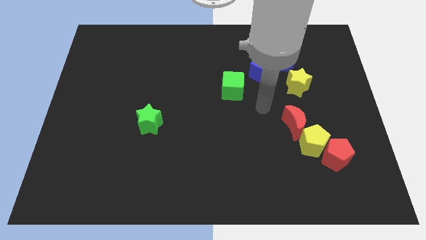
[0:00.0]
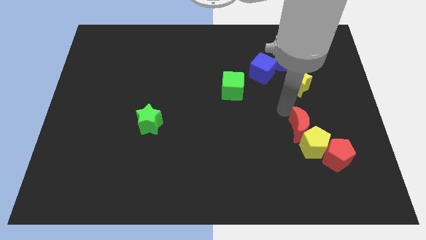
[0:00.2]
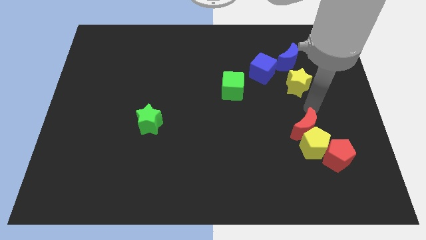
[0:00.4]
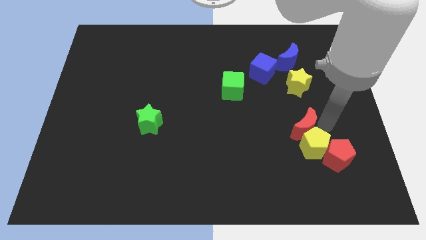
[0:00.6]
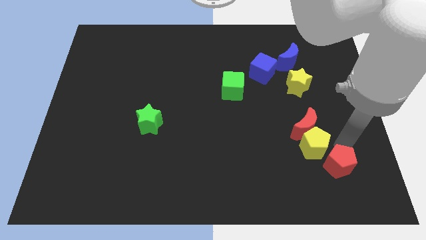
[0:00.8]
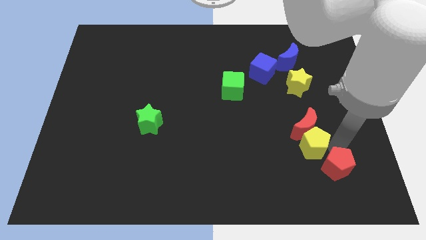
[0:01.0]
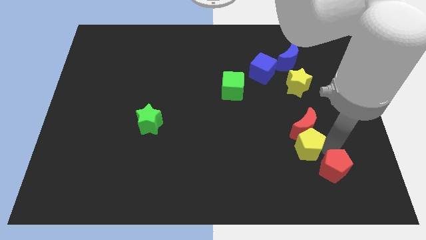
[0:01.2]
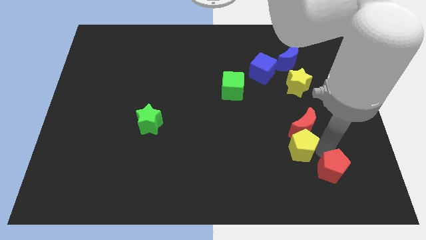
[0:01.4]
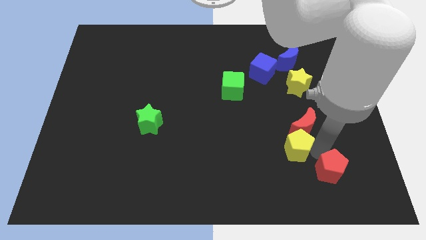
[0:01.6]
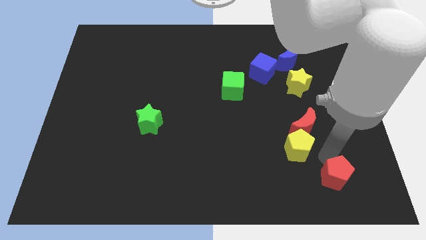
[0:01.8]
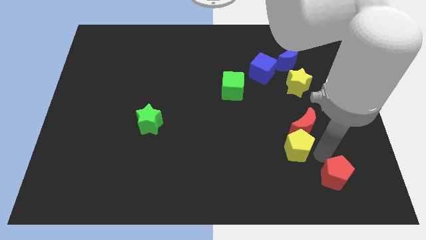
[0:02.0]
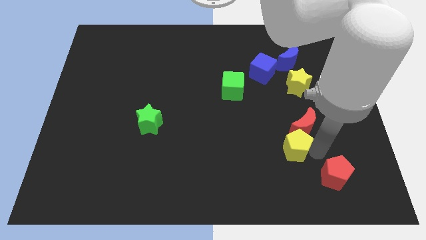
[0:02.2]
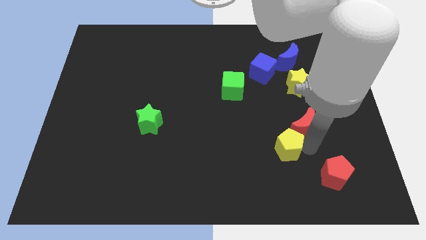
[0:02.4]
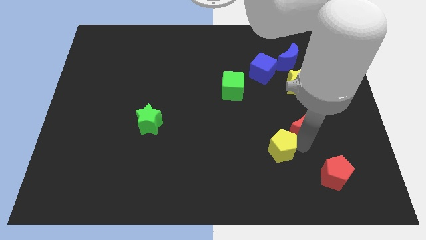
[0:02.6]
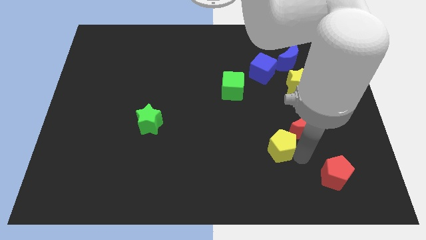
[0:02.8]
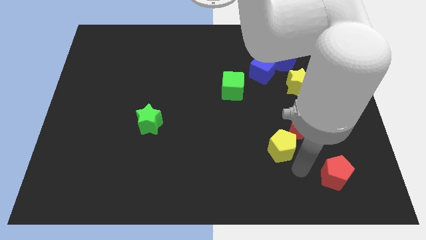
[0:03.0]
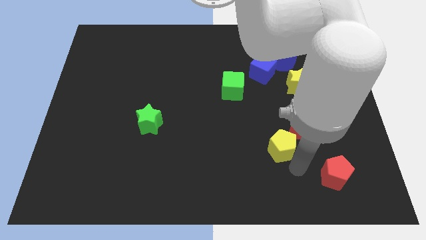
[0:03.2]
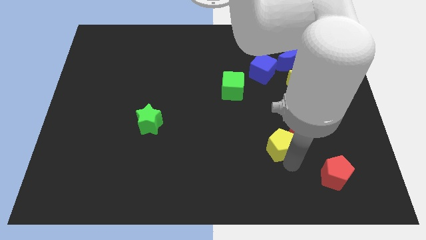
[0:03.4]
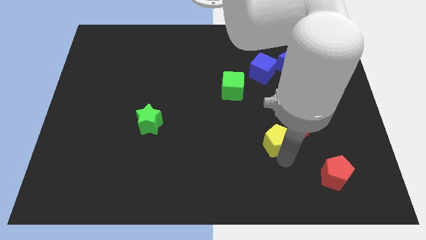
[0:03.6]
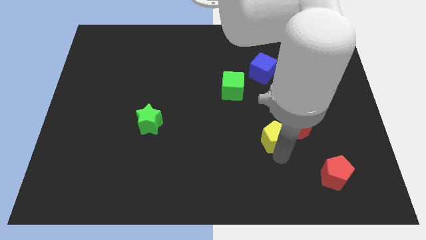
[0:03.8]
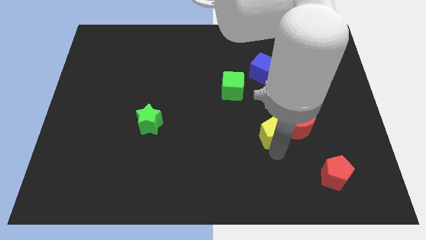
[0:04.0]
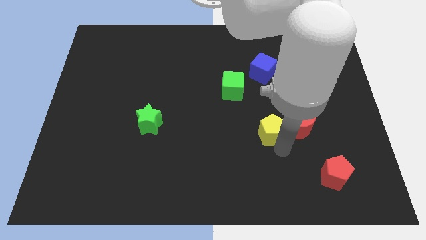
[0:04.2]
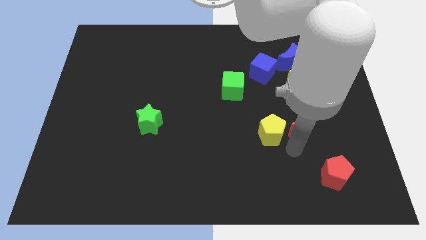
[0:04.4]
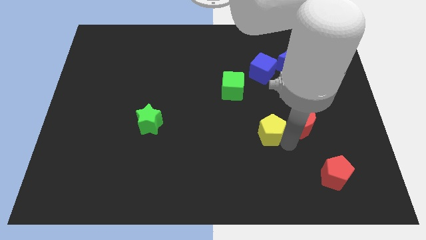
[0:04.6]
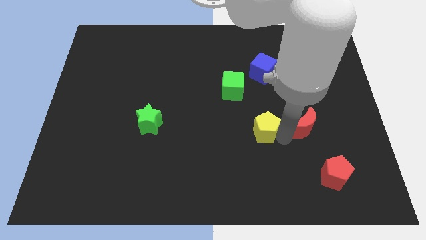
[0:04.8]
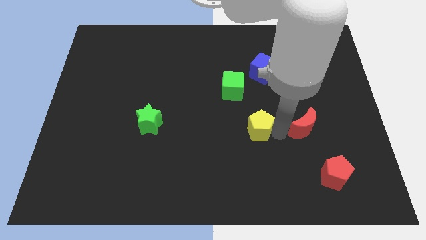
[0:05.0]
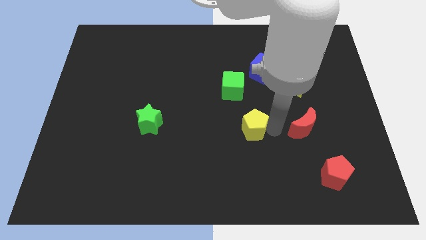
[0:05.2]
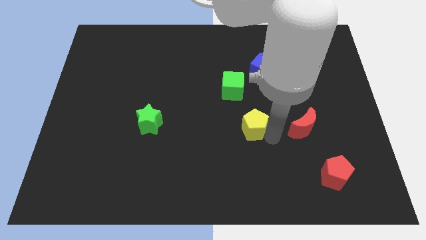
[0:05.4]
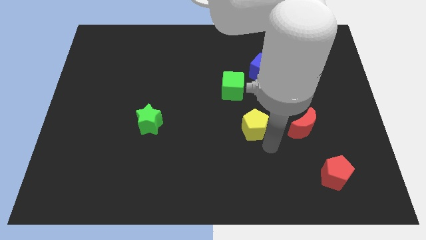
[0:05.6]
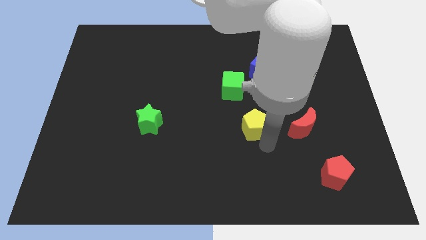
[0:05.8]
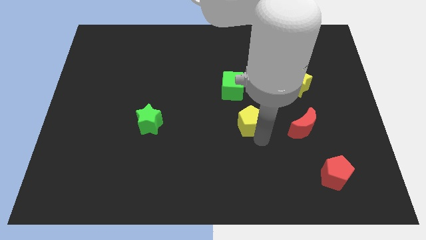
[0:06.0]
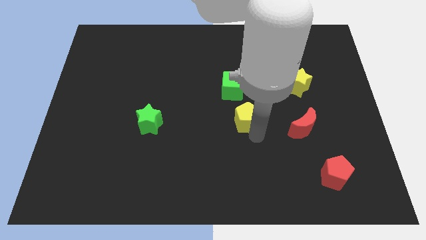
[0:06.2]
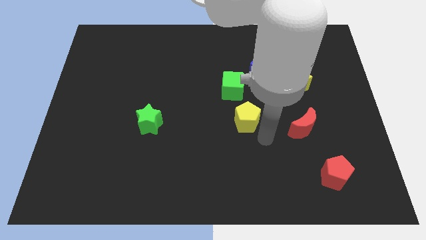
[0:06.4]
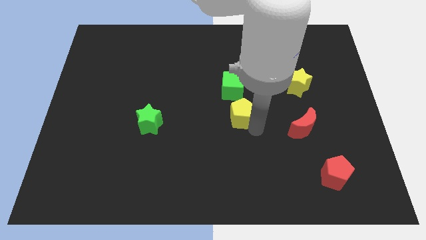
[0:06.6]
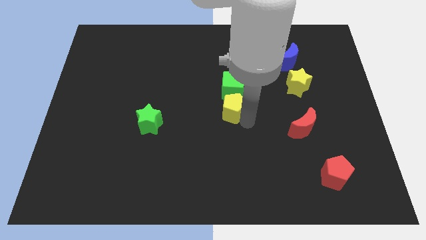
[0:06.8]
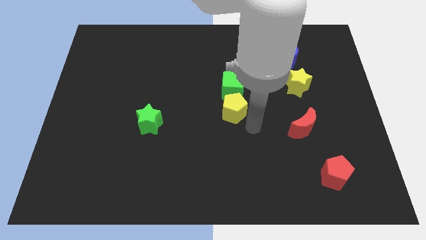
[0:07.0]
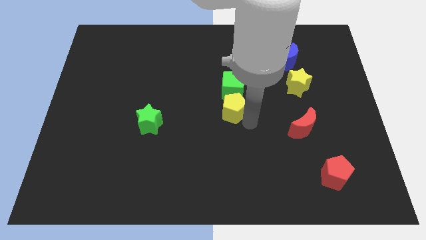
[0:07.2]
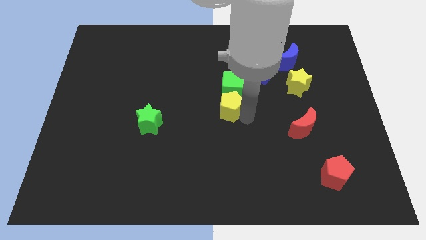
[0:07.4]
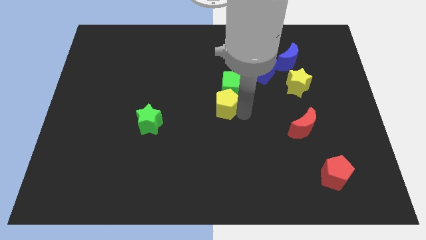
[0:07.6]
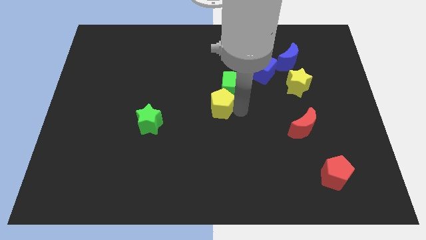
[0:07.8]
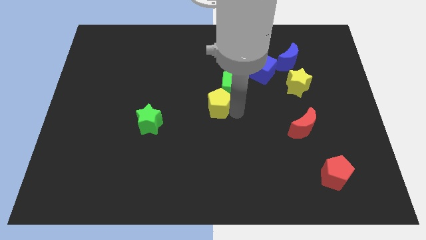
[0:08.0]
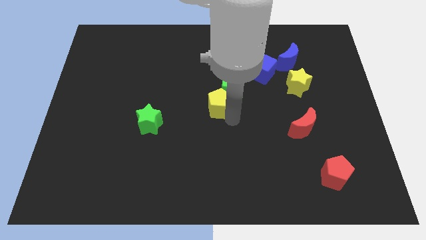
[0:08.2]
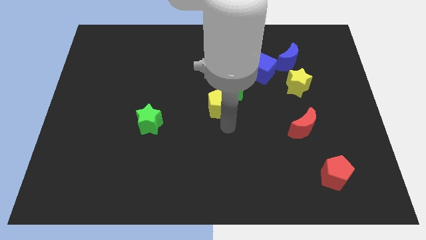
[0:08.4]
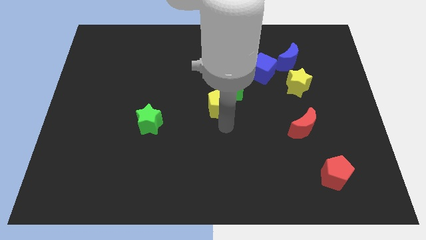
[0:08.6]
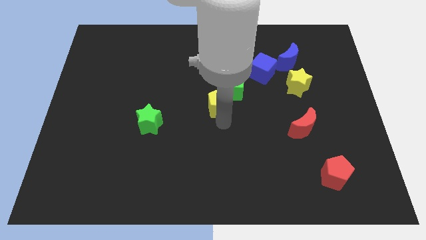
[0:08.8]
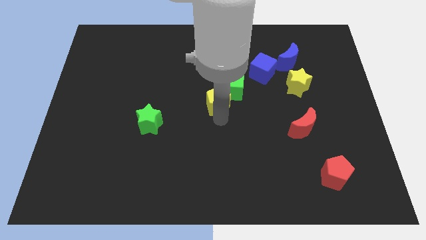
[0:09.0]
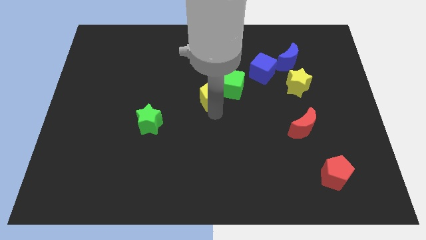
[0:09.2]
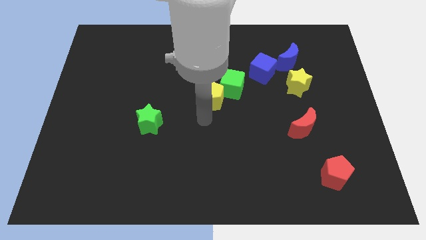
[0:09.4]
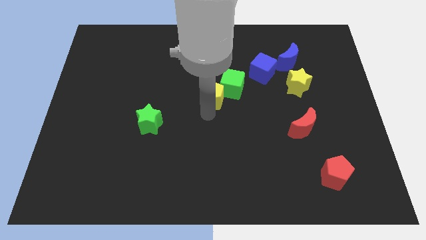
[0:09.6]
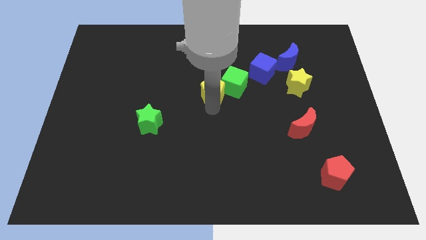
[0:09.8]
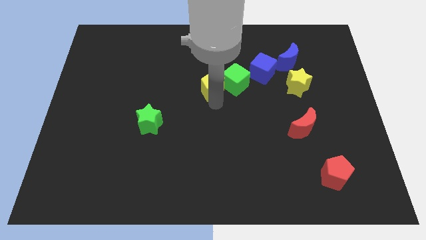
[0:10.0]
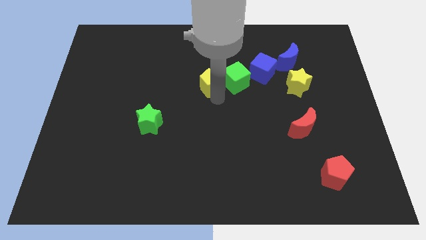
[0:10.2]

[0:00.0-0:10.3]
put the yellow pentagon left of the blue cube

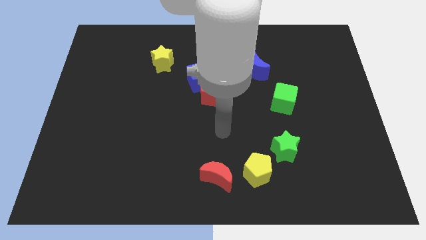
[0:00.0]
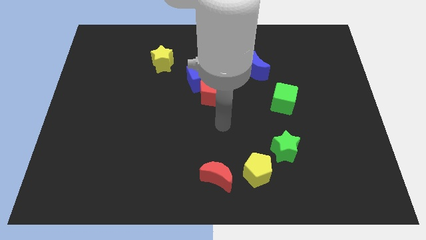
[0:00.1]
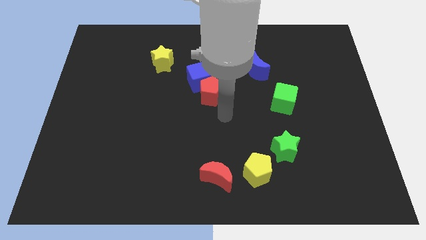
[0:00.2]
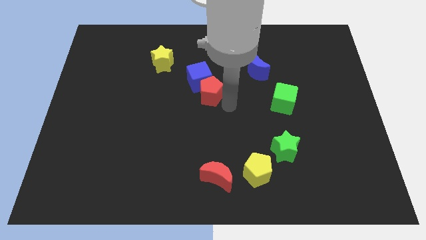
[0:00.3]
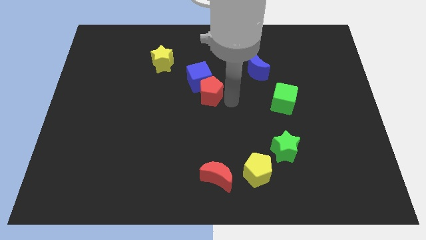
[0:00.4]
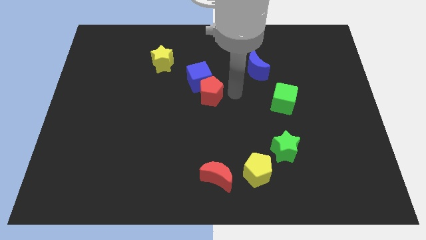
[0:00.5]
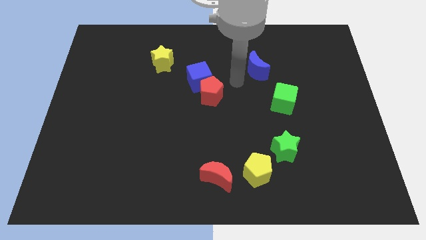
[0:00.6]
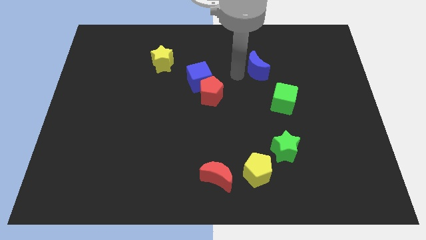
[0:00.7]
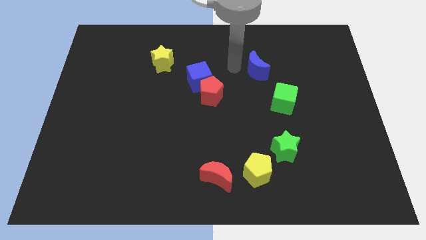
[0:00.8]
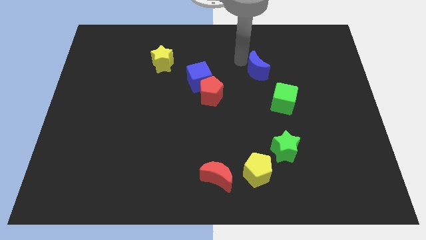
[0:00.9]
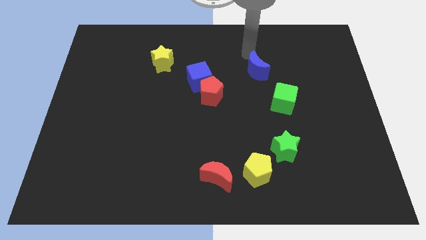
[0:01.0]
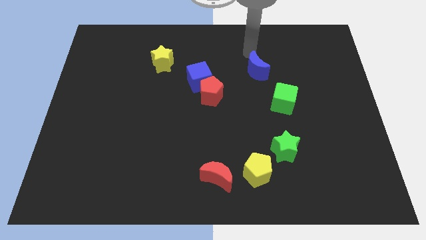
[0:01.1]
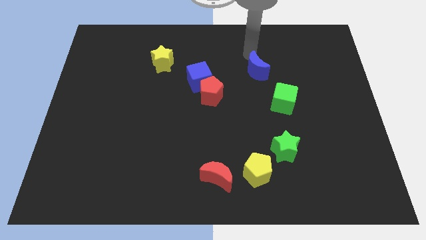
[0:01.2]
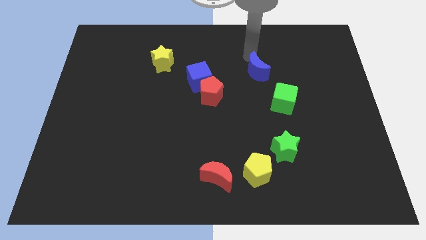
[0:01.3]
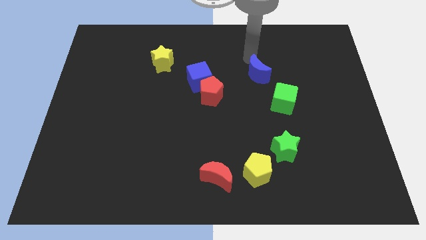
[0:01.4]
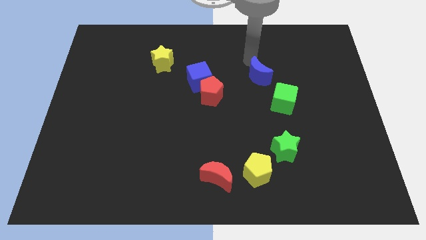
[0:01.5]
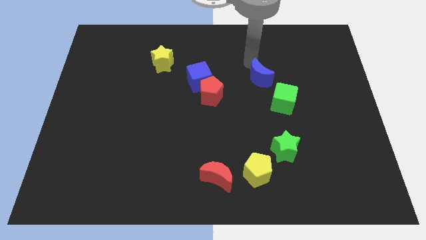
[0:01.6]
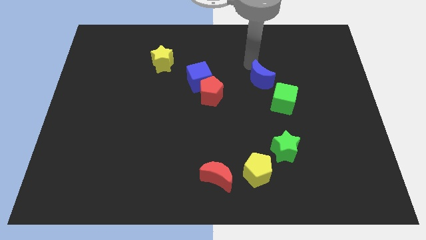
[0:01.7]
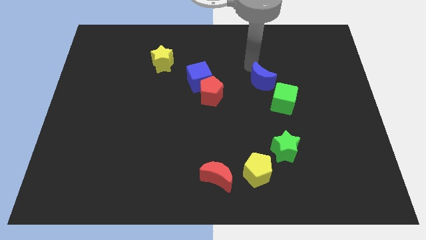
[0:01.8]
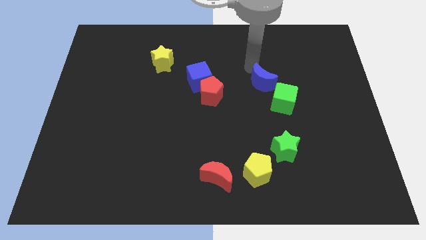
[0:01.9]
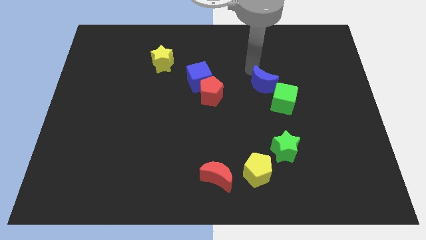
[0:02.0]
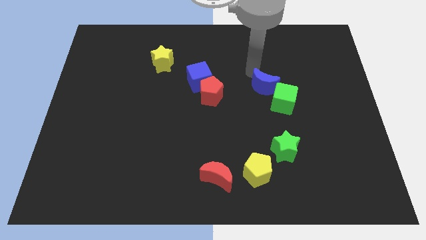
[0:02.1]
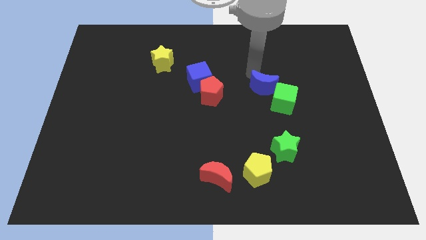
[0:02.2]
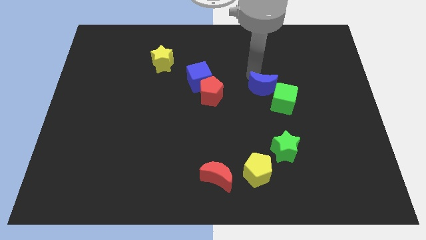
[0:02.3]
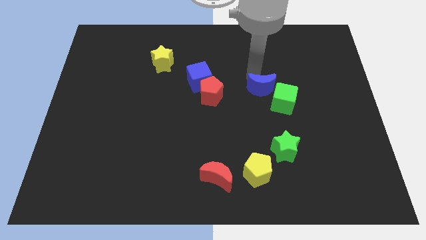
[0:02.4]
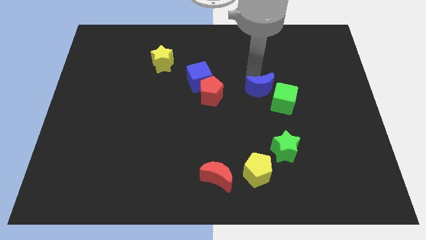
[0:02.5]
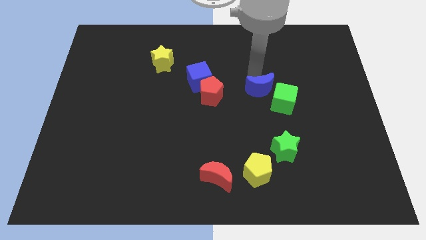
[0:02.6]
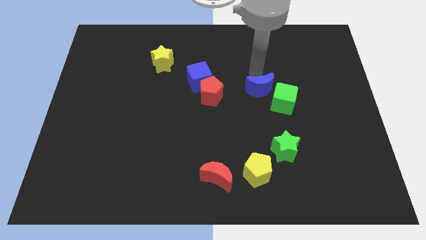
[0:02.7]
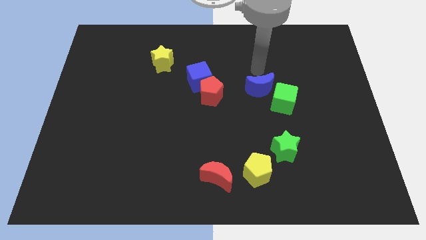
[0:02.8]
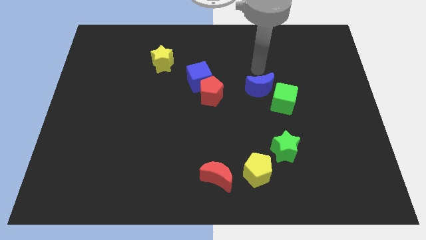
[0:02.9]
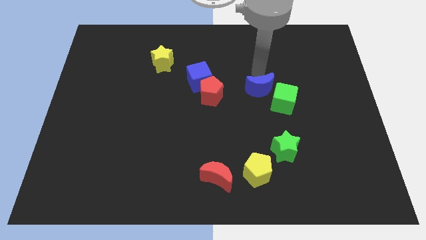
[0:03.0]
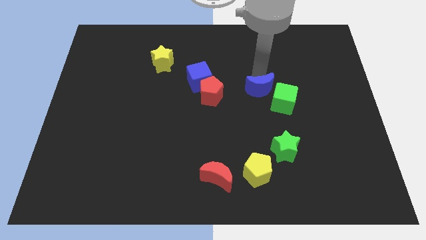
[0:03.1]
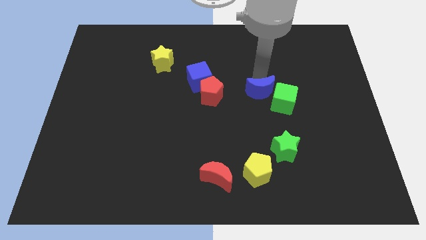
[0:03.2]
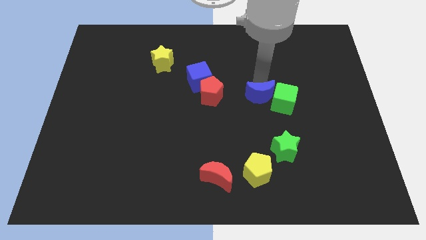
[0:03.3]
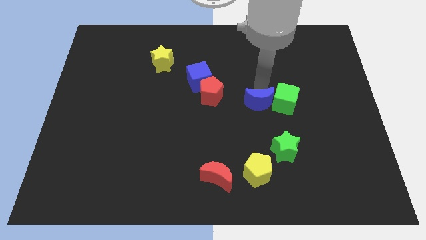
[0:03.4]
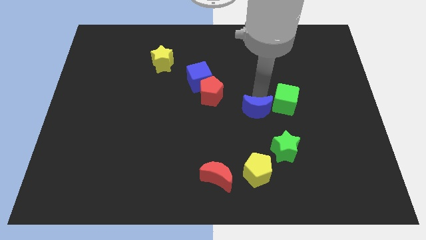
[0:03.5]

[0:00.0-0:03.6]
slide the blue moon to the top left of the green star
